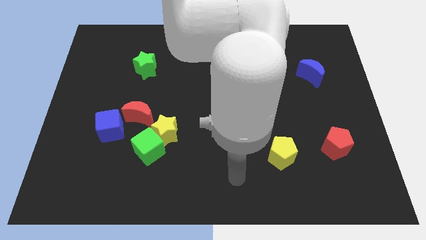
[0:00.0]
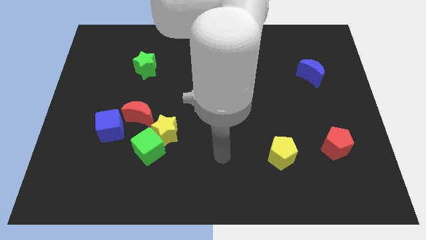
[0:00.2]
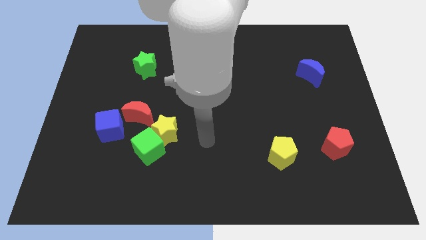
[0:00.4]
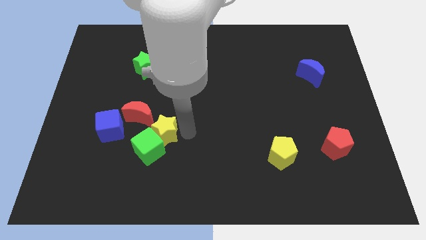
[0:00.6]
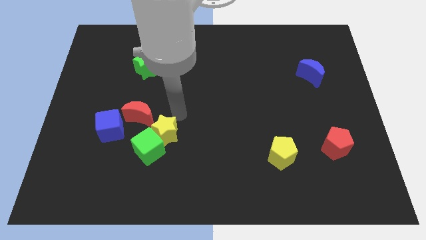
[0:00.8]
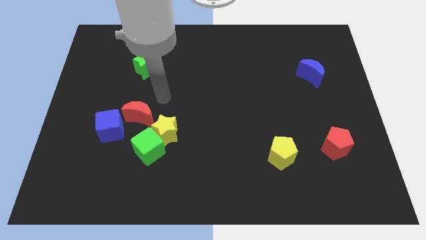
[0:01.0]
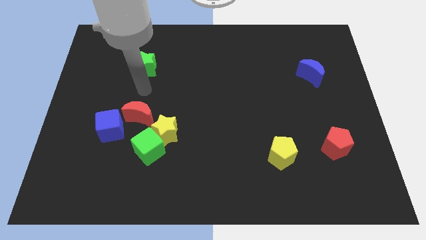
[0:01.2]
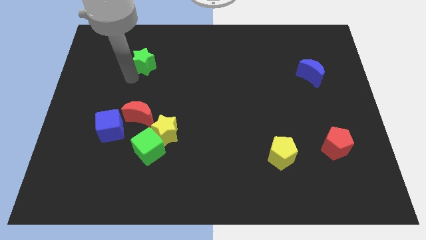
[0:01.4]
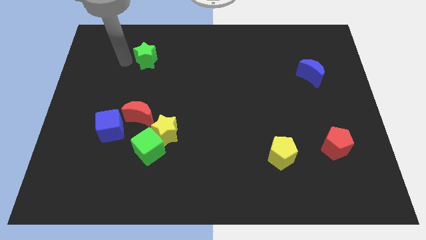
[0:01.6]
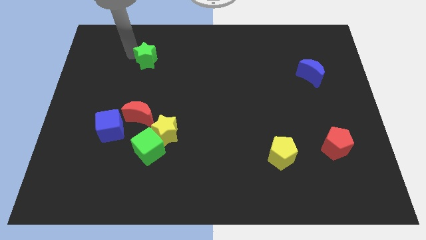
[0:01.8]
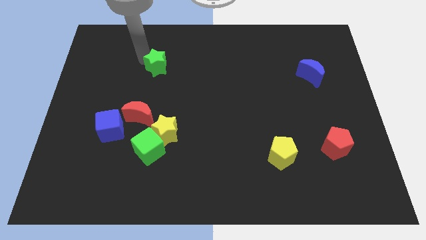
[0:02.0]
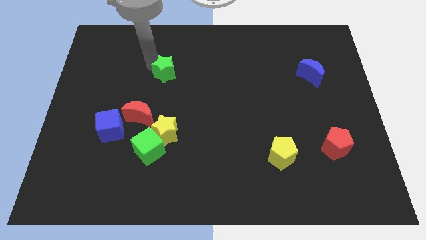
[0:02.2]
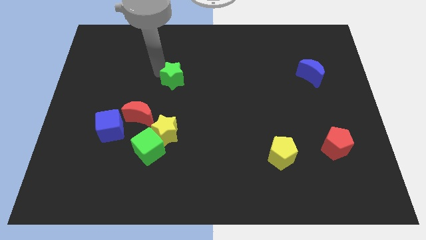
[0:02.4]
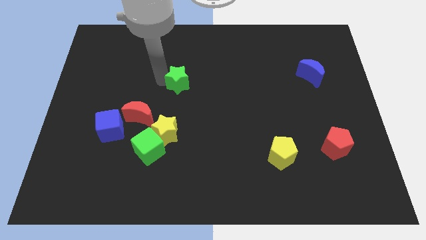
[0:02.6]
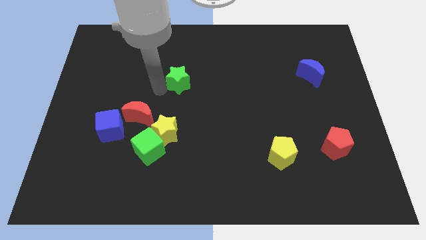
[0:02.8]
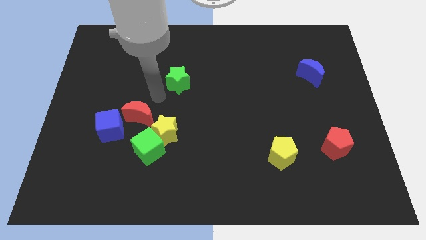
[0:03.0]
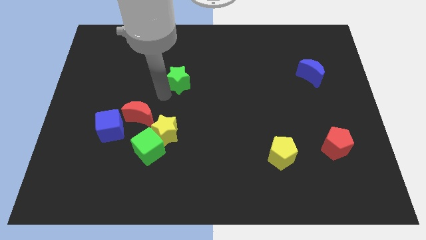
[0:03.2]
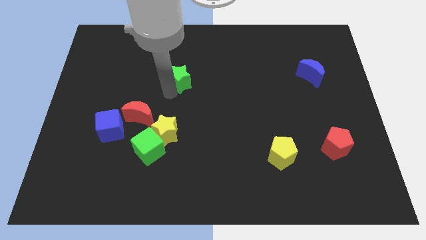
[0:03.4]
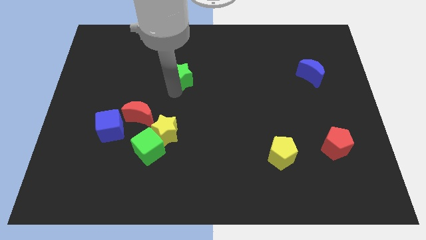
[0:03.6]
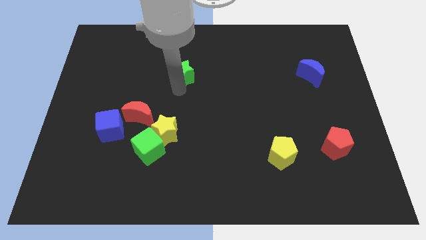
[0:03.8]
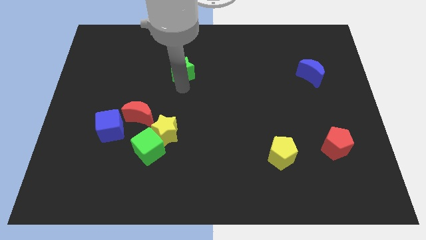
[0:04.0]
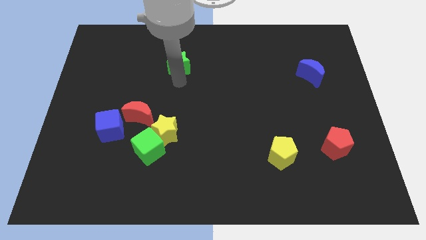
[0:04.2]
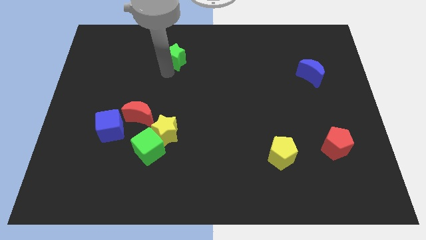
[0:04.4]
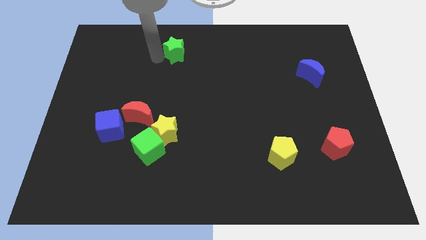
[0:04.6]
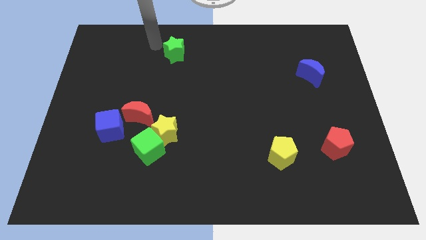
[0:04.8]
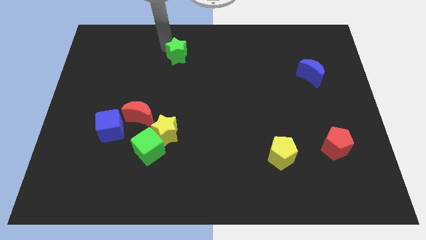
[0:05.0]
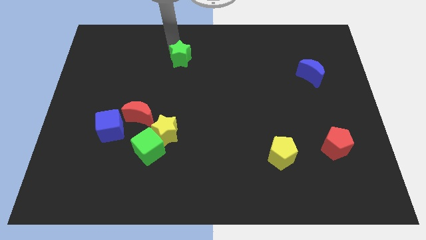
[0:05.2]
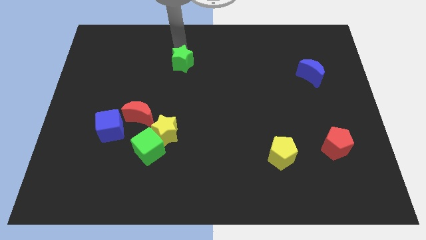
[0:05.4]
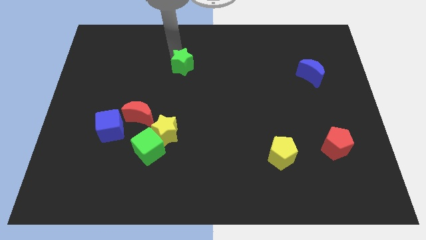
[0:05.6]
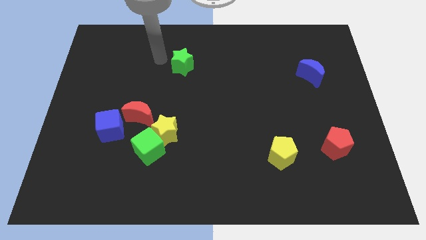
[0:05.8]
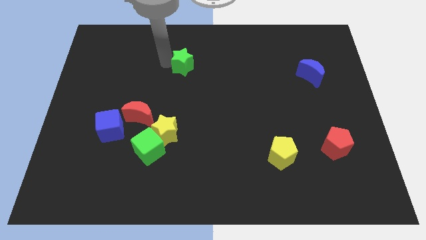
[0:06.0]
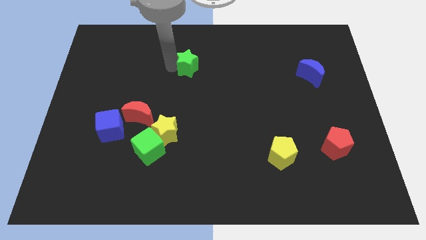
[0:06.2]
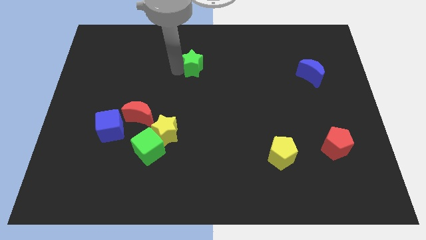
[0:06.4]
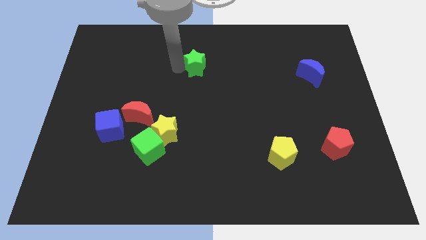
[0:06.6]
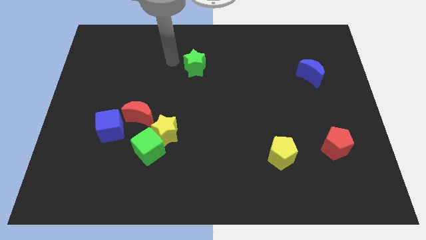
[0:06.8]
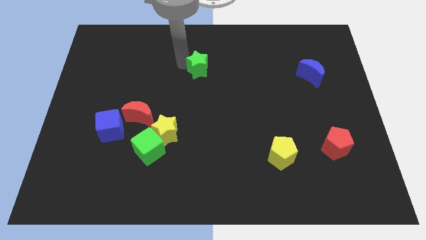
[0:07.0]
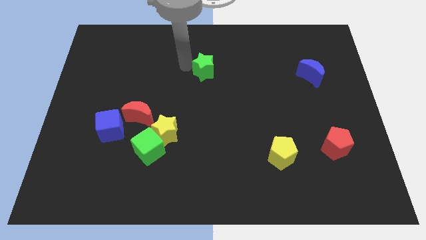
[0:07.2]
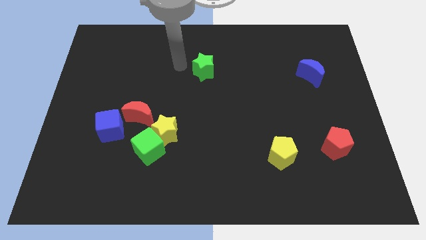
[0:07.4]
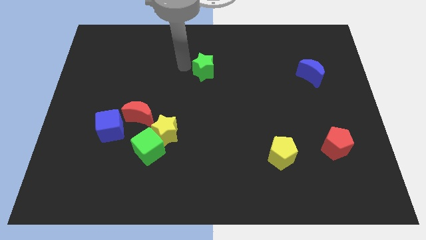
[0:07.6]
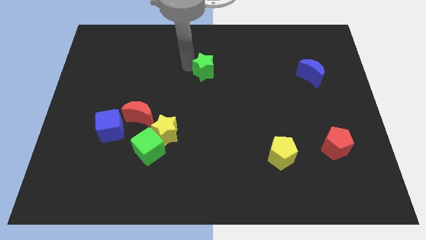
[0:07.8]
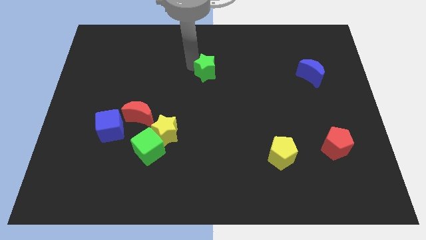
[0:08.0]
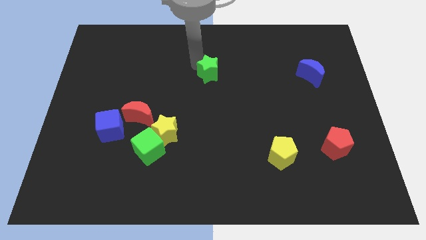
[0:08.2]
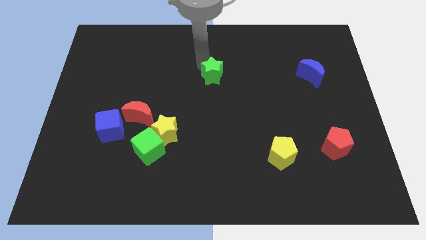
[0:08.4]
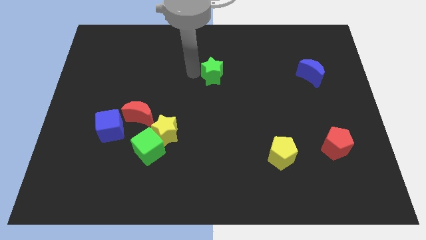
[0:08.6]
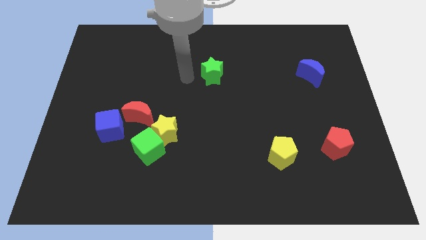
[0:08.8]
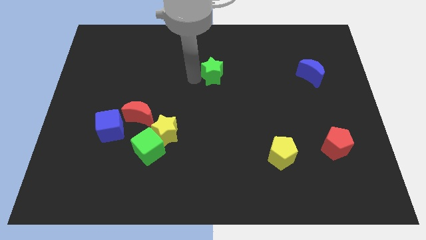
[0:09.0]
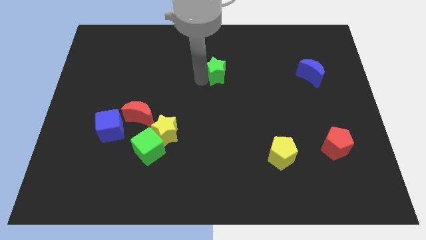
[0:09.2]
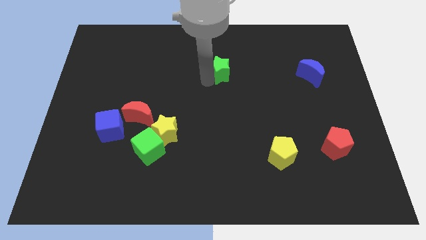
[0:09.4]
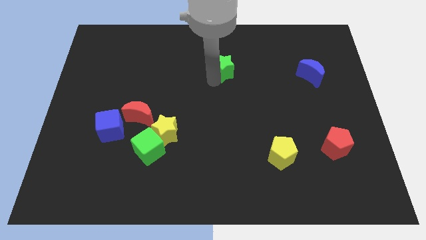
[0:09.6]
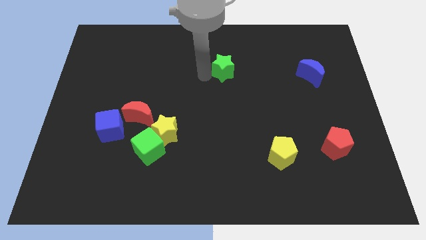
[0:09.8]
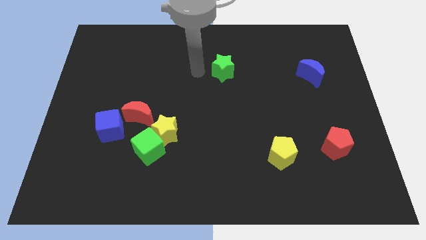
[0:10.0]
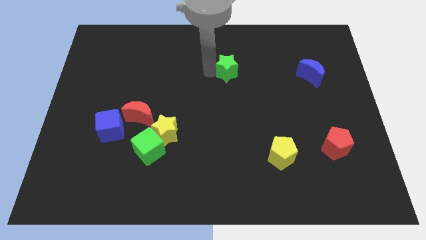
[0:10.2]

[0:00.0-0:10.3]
push the green star right

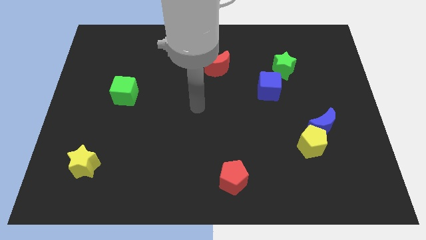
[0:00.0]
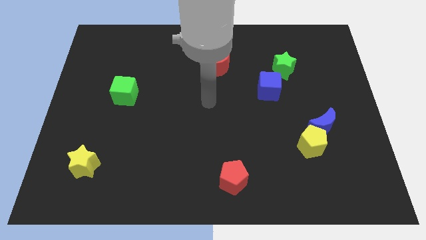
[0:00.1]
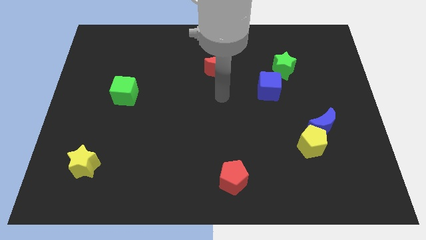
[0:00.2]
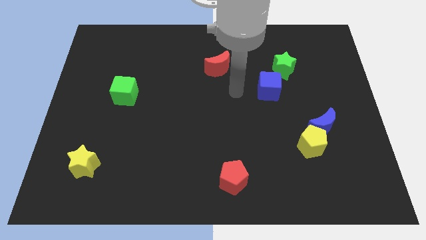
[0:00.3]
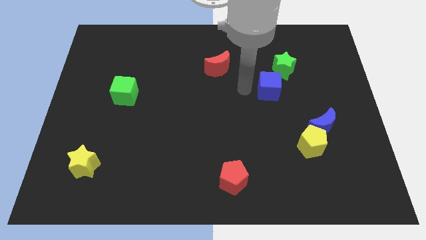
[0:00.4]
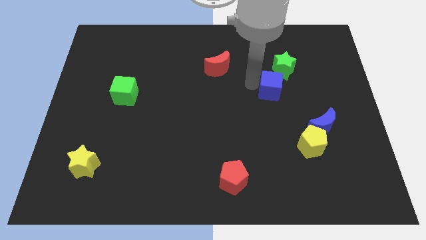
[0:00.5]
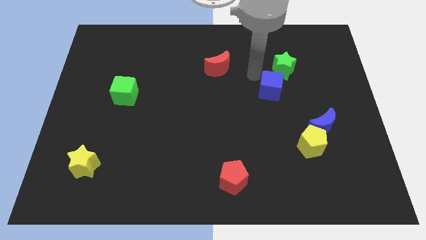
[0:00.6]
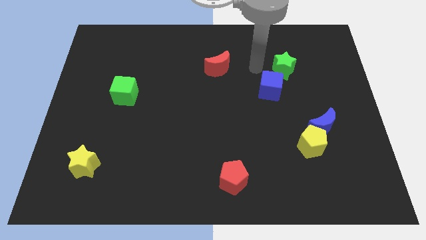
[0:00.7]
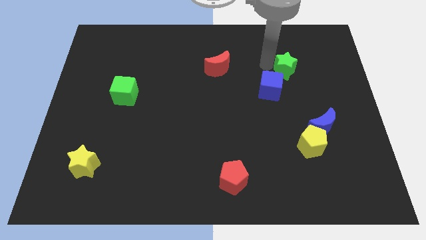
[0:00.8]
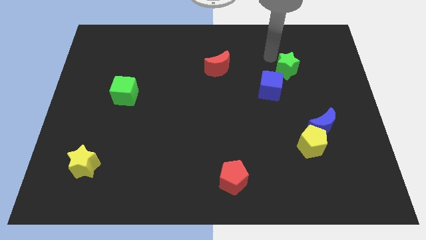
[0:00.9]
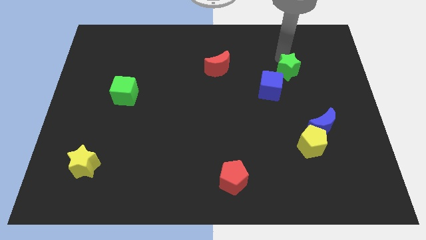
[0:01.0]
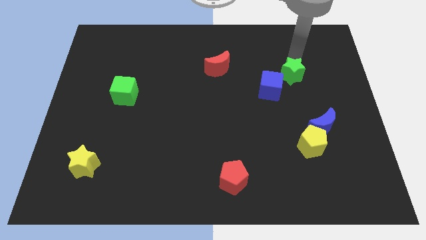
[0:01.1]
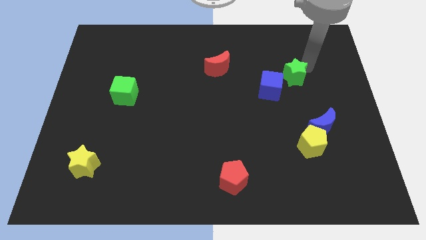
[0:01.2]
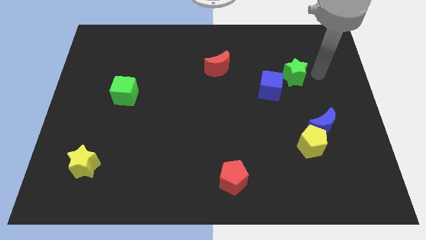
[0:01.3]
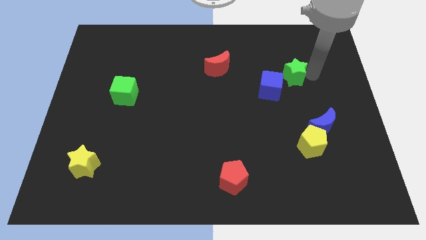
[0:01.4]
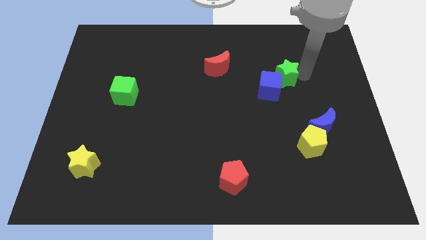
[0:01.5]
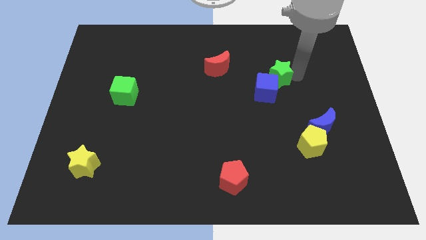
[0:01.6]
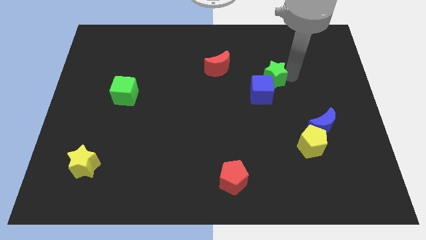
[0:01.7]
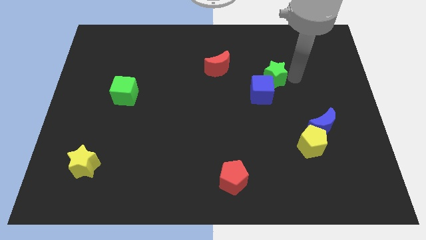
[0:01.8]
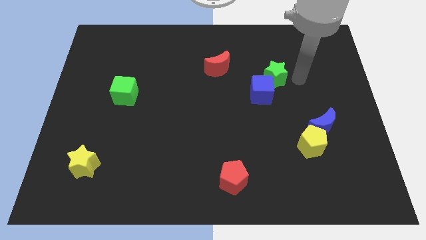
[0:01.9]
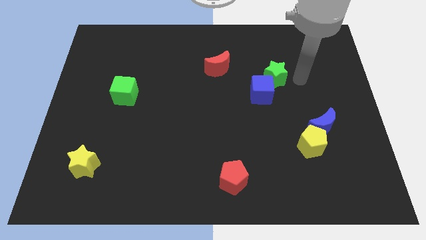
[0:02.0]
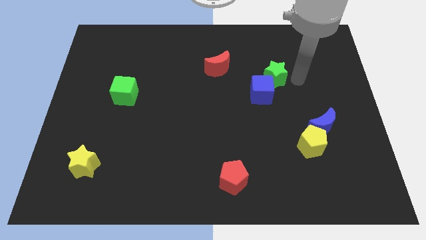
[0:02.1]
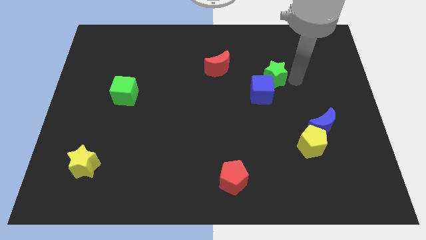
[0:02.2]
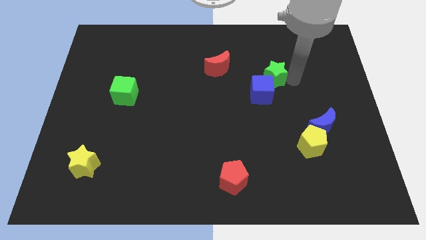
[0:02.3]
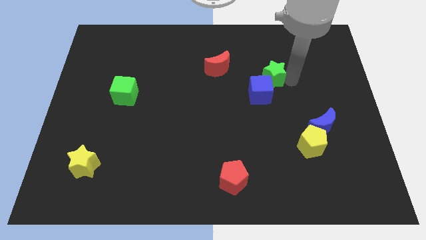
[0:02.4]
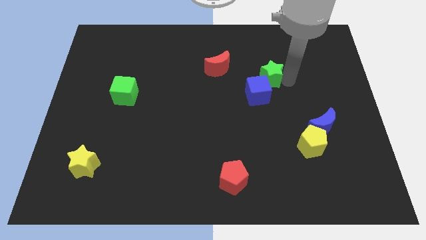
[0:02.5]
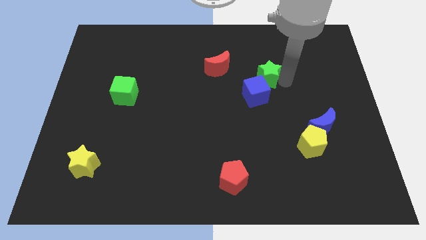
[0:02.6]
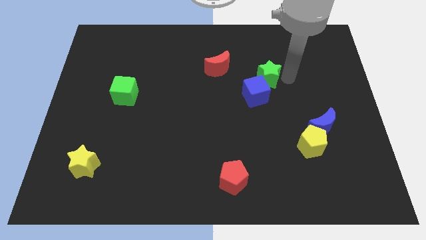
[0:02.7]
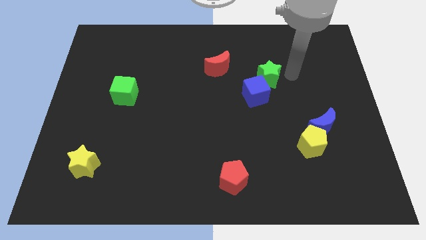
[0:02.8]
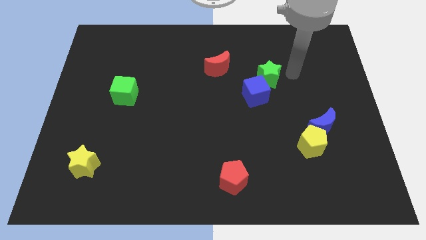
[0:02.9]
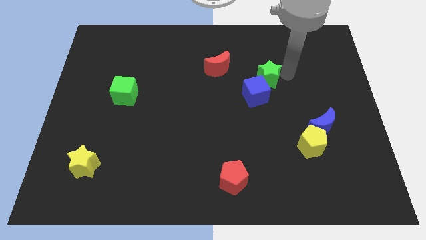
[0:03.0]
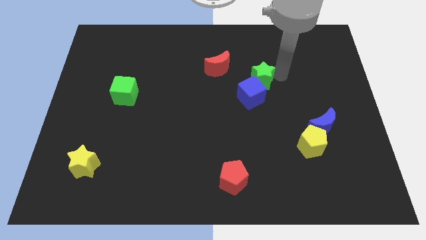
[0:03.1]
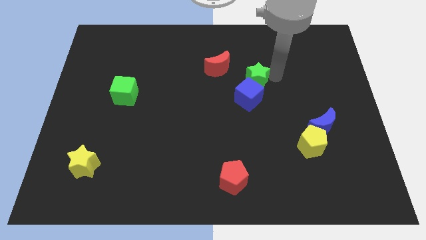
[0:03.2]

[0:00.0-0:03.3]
move the green star down and left diagonally a bit
